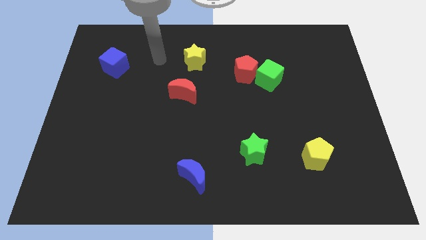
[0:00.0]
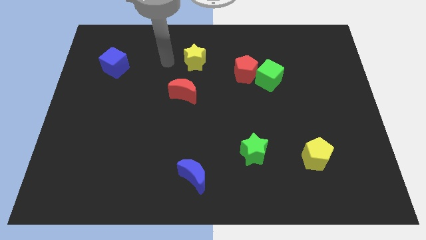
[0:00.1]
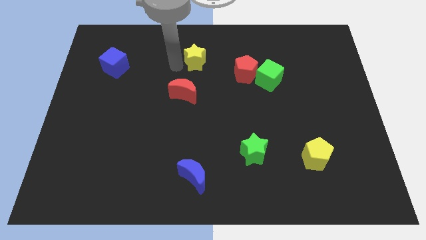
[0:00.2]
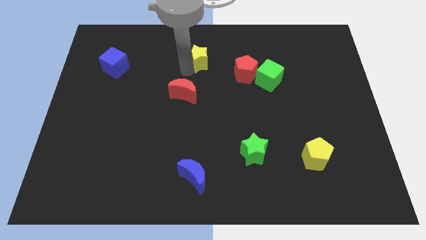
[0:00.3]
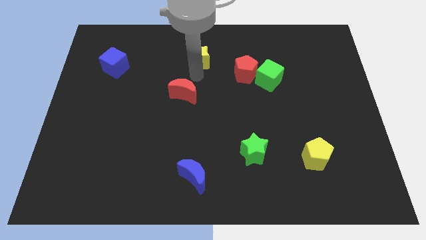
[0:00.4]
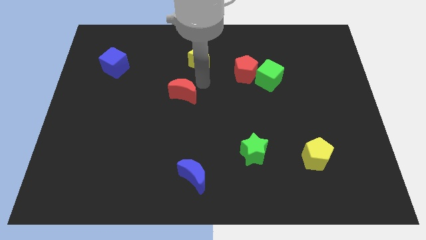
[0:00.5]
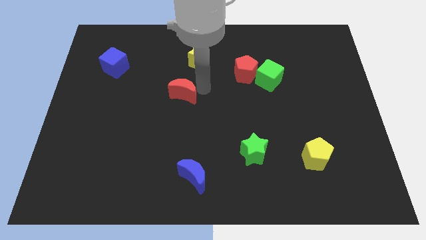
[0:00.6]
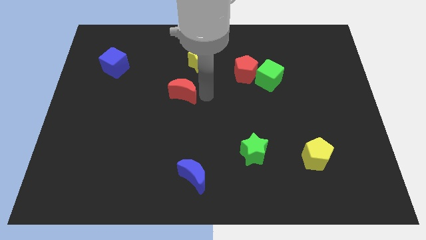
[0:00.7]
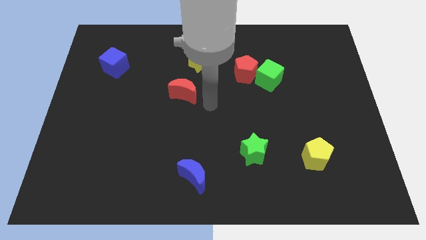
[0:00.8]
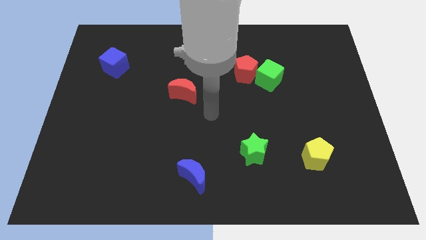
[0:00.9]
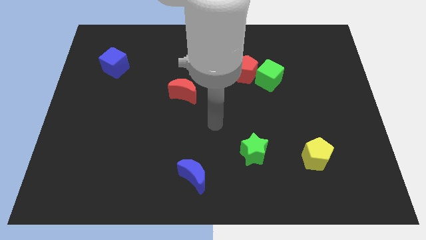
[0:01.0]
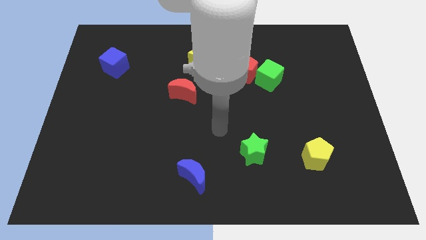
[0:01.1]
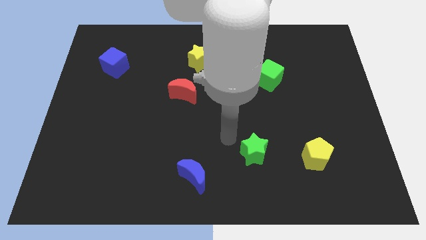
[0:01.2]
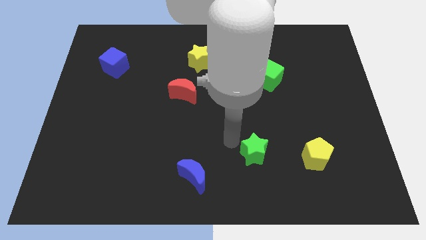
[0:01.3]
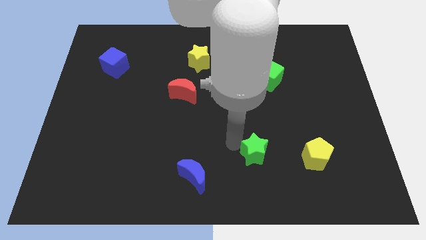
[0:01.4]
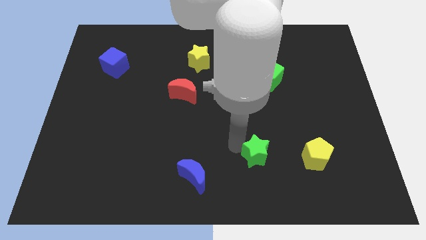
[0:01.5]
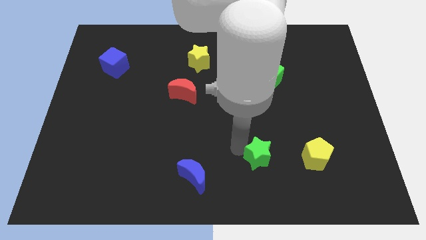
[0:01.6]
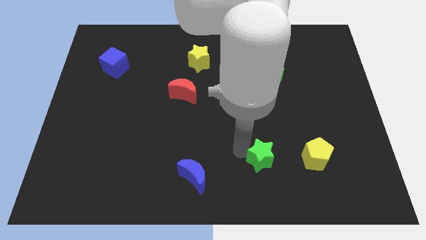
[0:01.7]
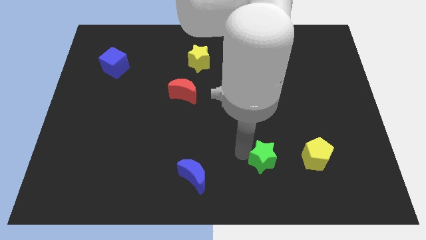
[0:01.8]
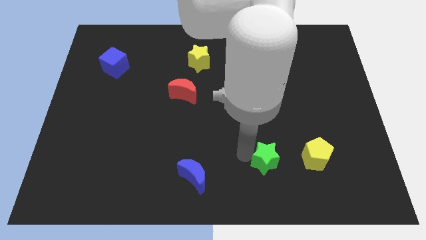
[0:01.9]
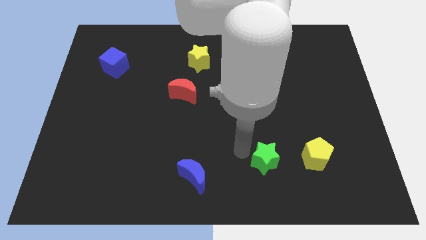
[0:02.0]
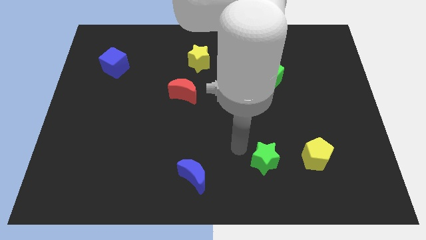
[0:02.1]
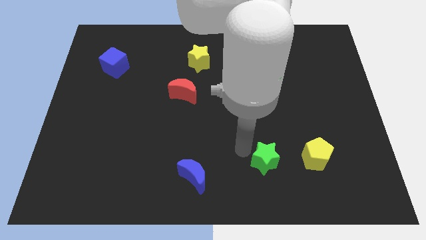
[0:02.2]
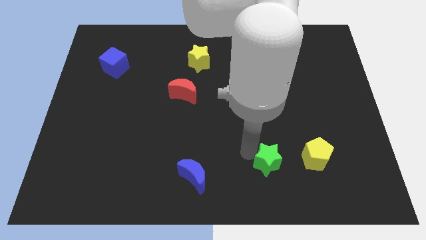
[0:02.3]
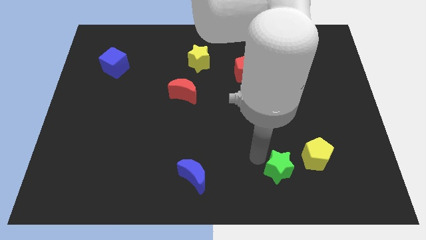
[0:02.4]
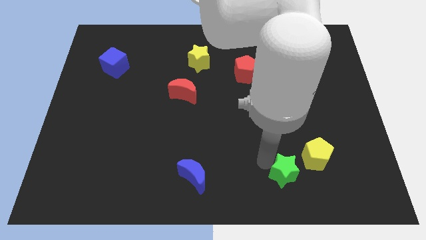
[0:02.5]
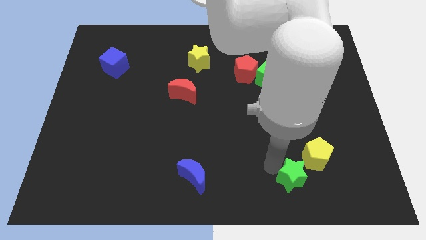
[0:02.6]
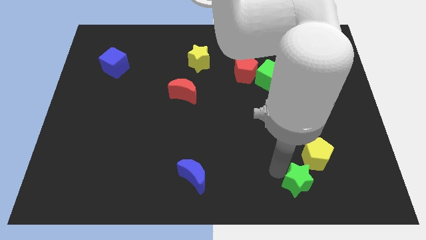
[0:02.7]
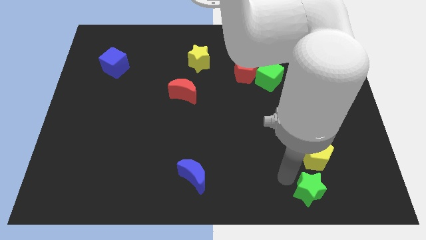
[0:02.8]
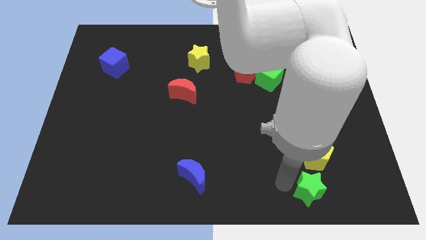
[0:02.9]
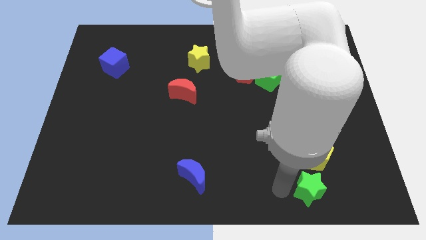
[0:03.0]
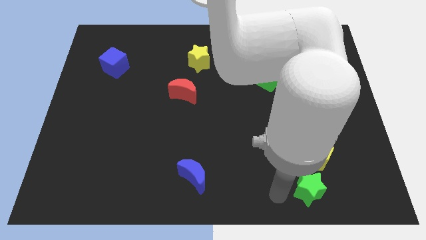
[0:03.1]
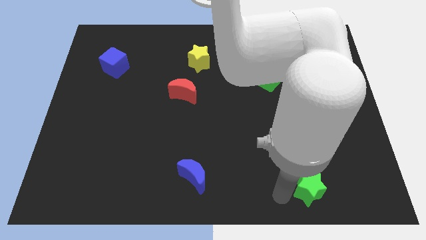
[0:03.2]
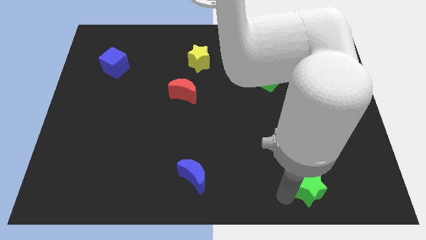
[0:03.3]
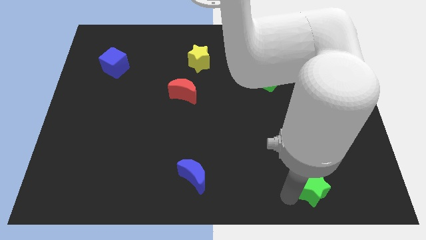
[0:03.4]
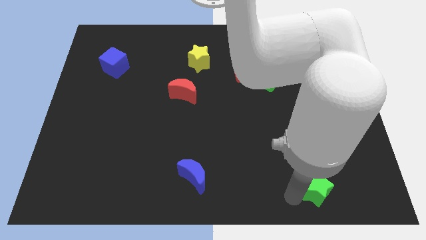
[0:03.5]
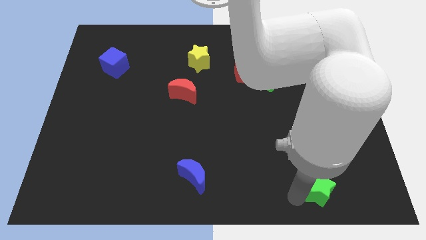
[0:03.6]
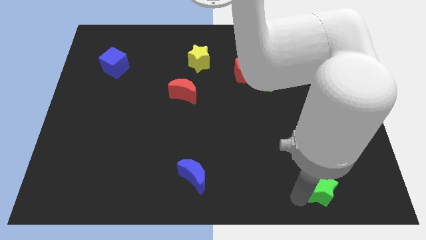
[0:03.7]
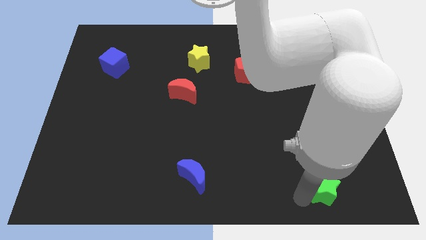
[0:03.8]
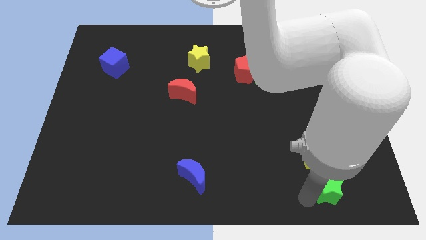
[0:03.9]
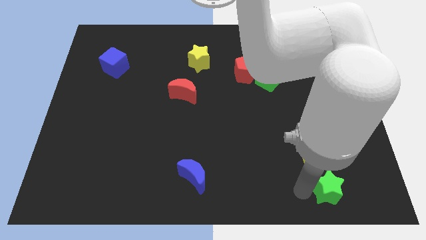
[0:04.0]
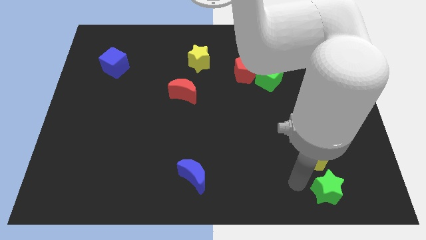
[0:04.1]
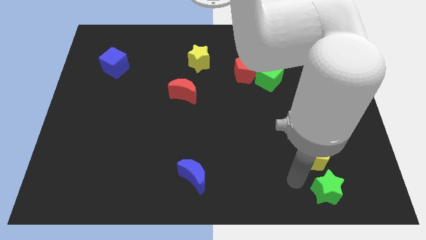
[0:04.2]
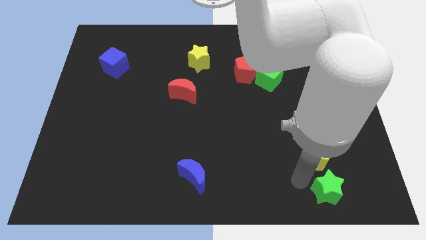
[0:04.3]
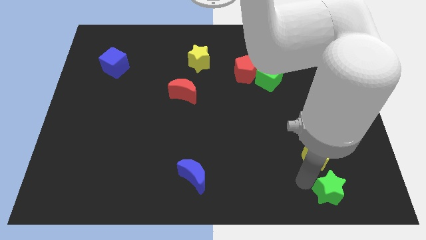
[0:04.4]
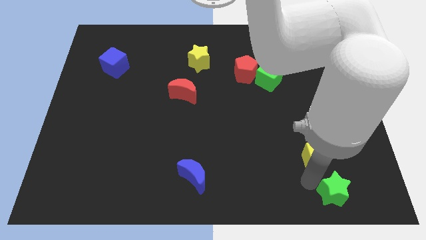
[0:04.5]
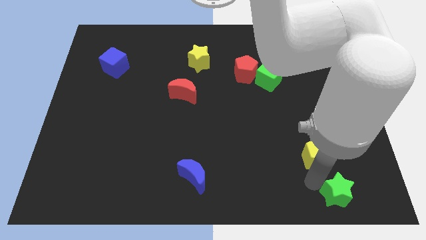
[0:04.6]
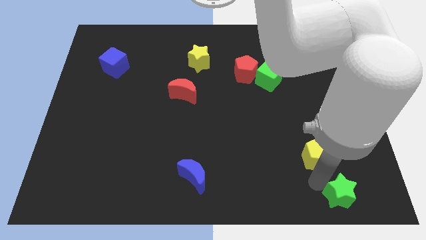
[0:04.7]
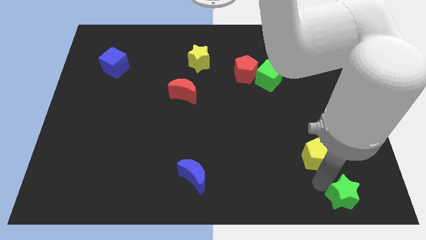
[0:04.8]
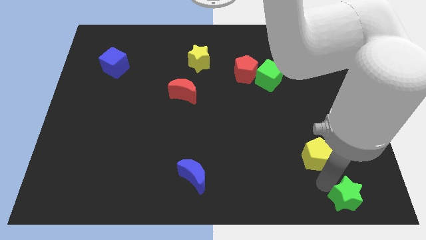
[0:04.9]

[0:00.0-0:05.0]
push the green star to the bottom right corner

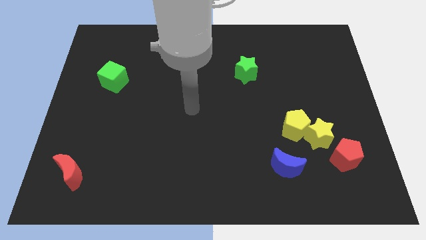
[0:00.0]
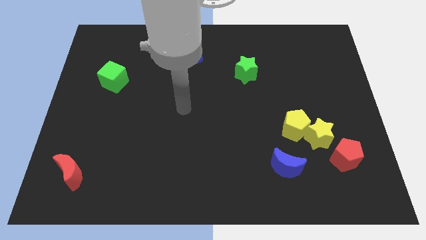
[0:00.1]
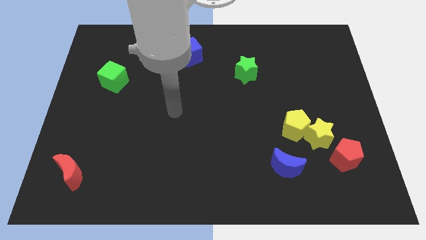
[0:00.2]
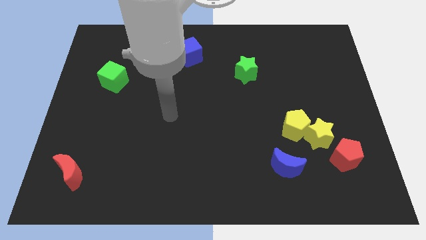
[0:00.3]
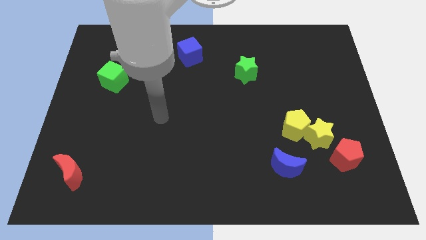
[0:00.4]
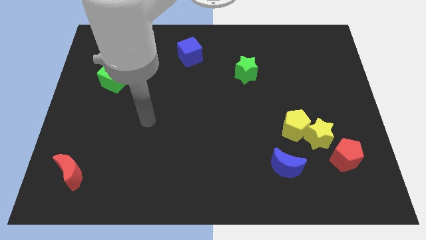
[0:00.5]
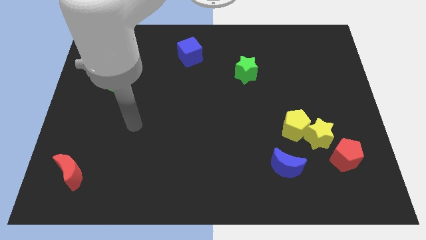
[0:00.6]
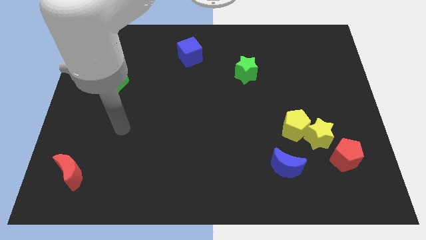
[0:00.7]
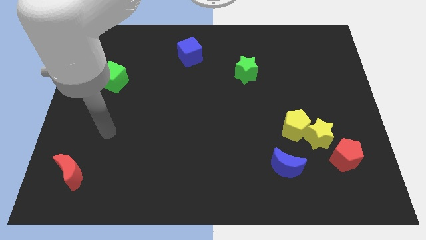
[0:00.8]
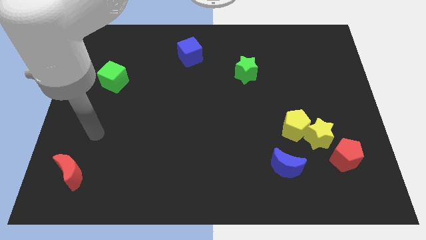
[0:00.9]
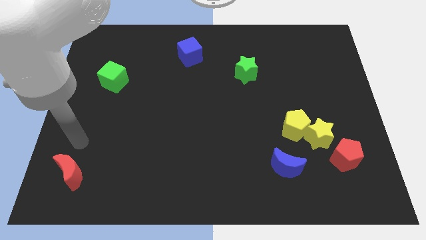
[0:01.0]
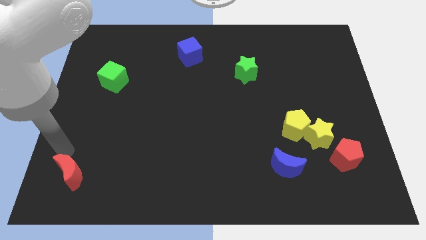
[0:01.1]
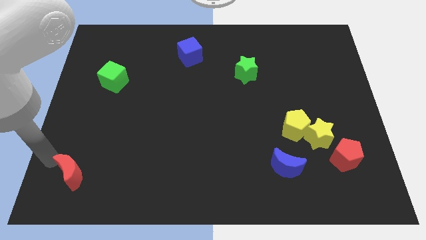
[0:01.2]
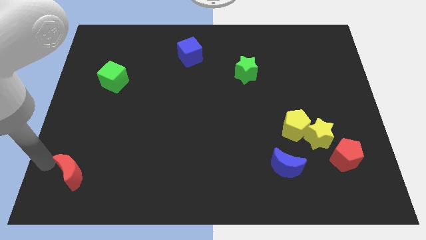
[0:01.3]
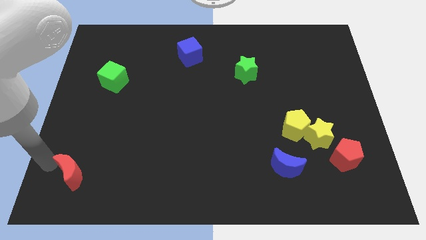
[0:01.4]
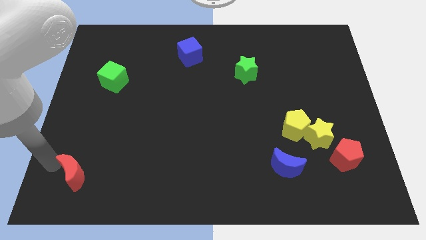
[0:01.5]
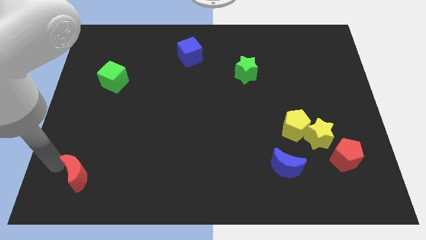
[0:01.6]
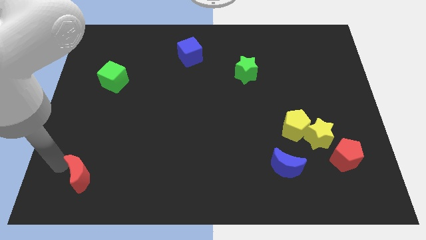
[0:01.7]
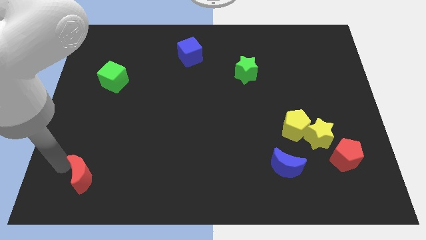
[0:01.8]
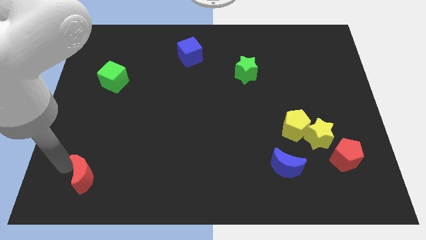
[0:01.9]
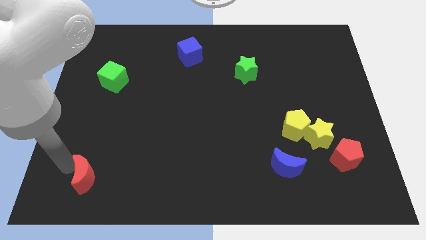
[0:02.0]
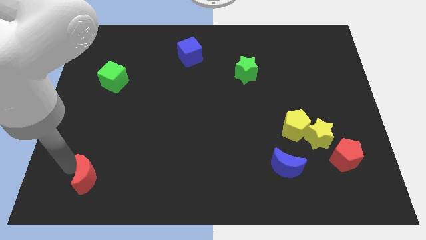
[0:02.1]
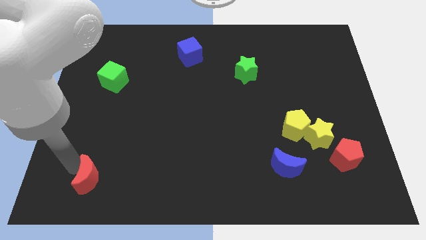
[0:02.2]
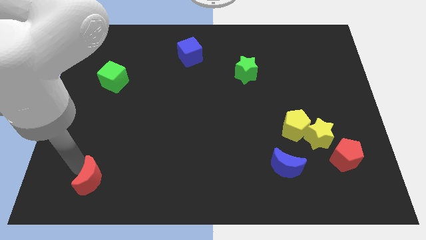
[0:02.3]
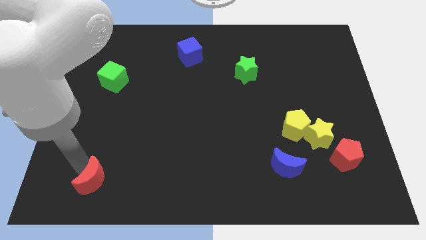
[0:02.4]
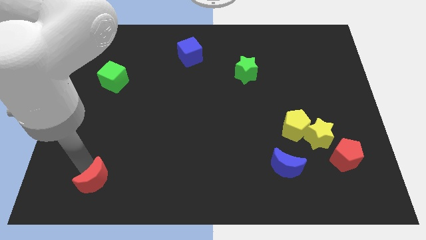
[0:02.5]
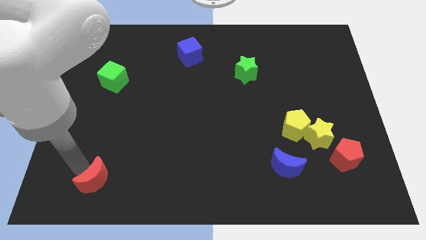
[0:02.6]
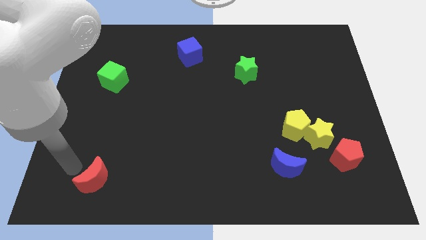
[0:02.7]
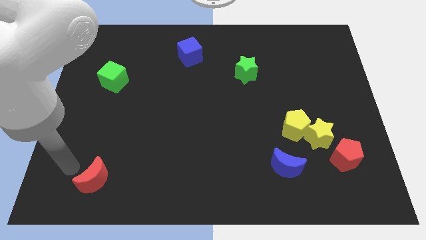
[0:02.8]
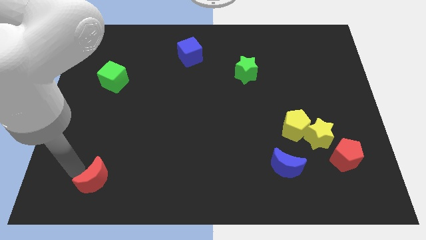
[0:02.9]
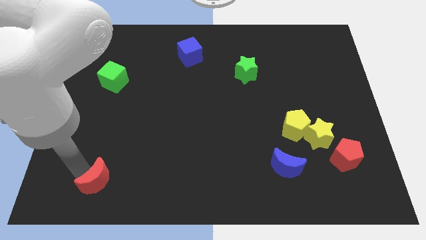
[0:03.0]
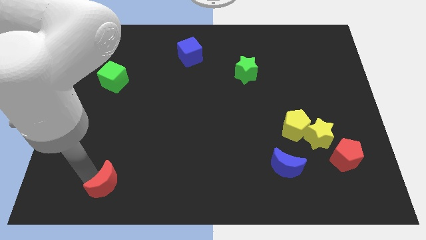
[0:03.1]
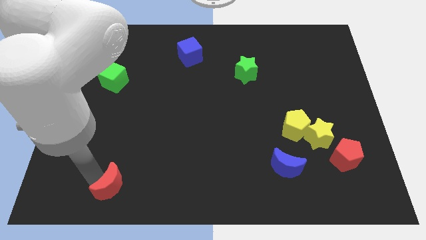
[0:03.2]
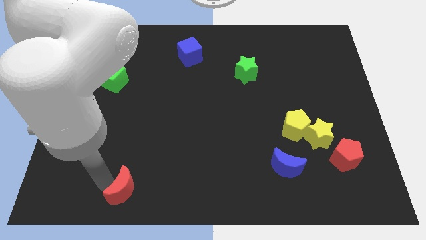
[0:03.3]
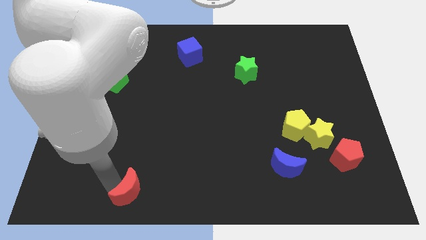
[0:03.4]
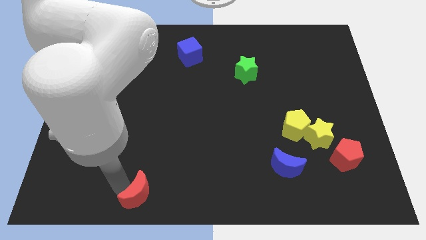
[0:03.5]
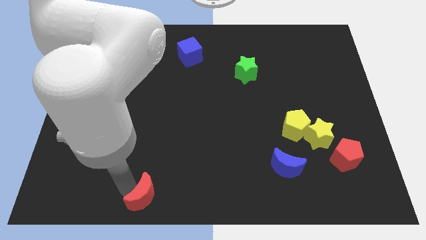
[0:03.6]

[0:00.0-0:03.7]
move the red moon to the bottom side
